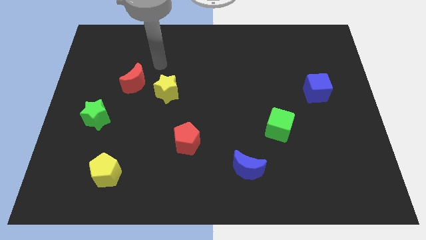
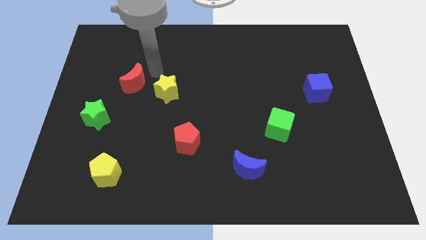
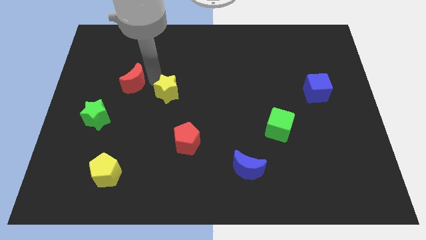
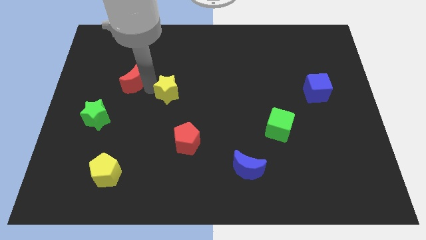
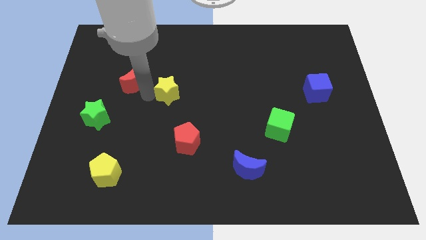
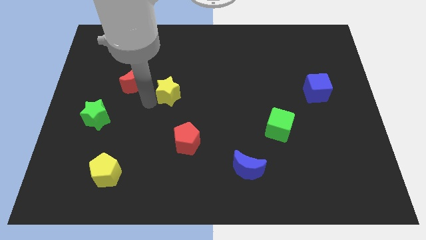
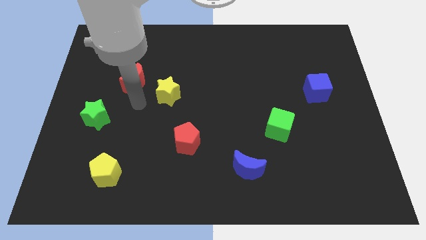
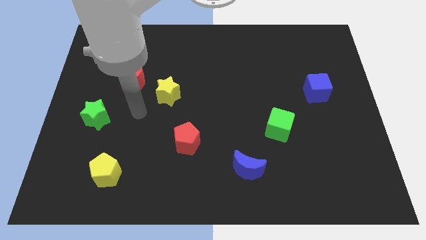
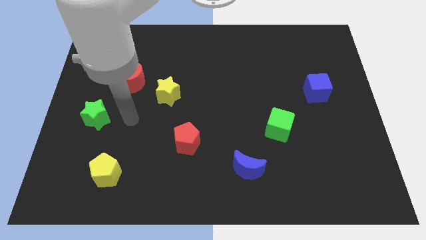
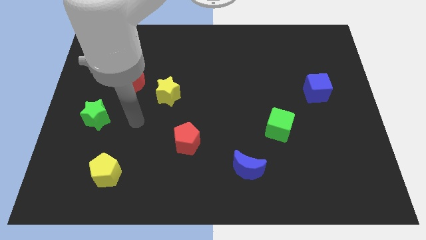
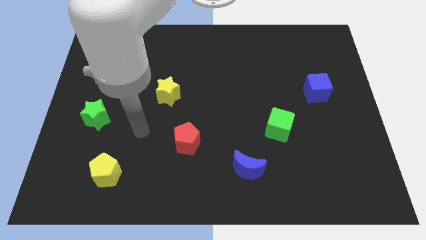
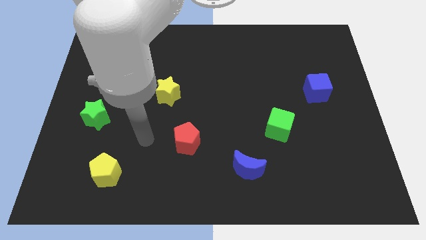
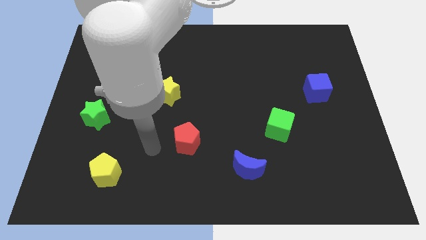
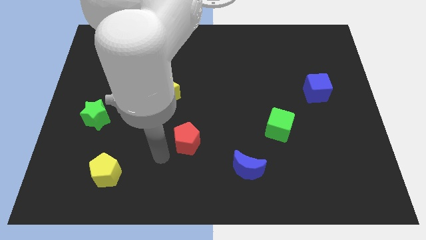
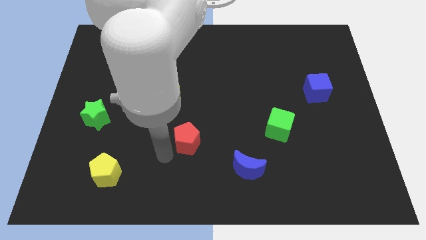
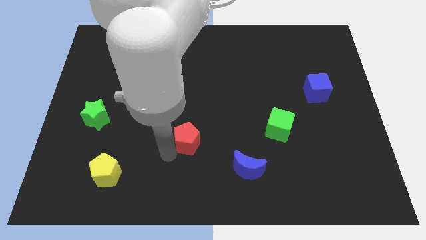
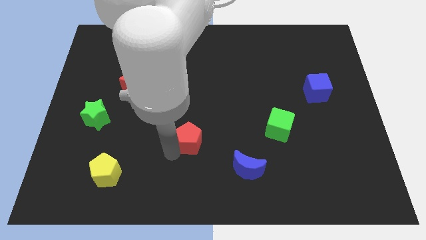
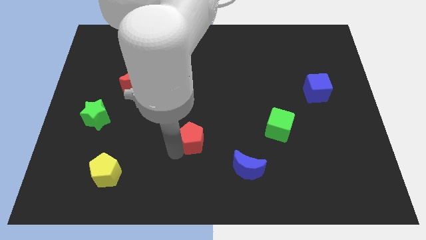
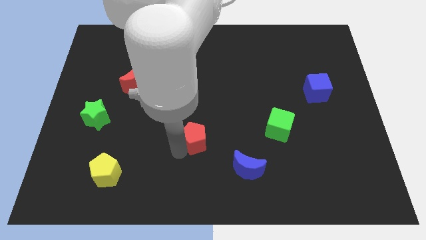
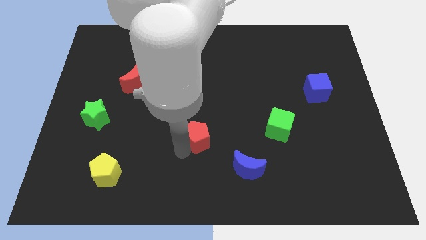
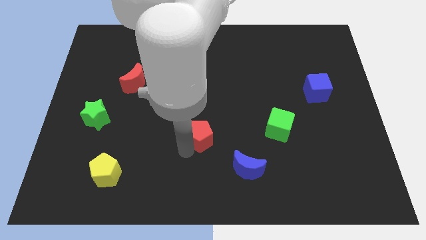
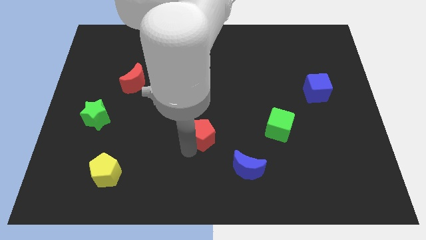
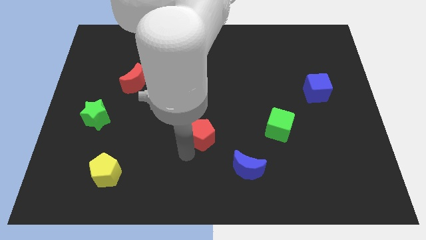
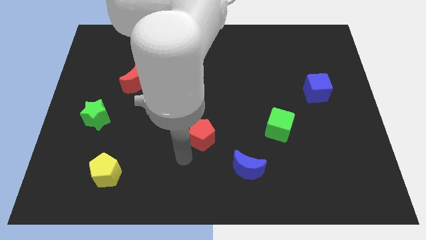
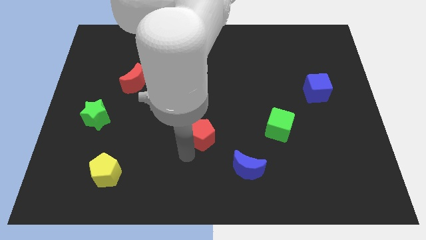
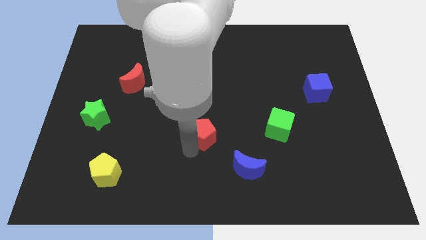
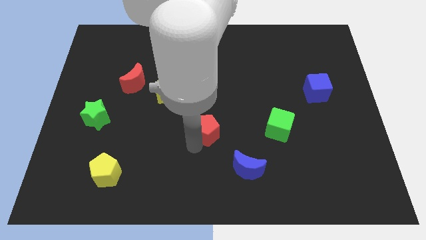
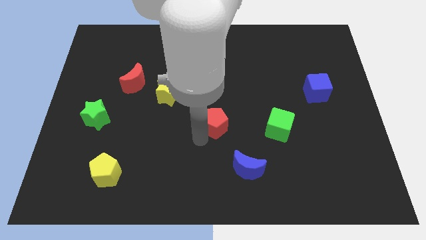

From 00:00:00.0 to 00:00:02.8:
move the red pentagon slightly up and to the right diagonally

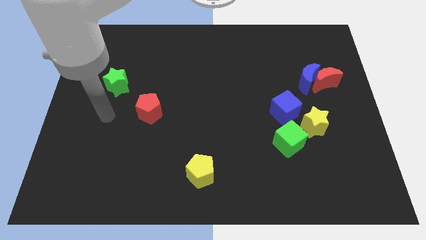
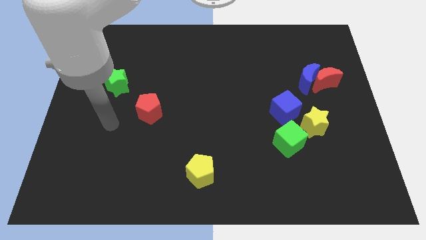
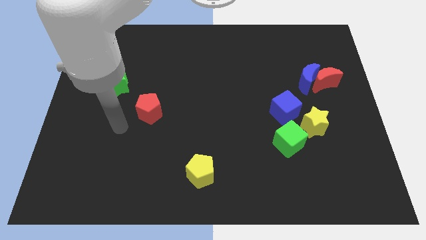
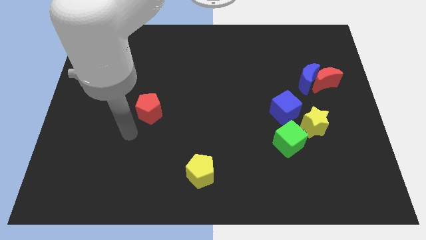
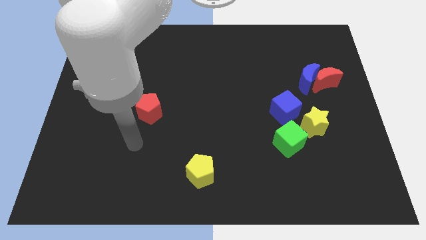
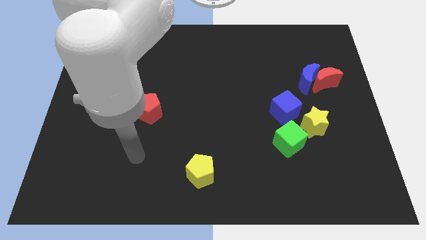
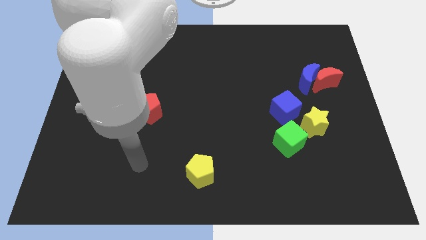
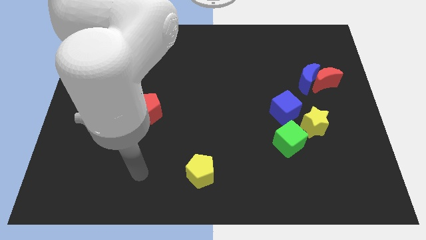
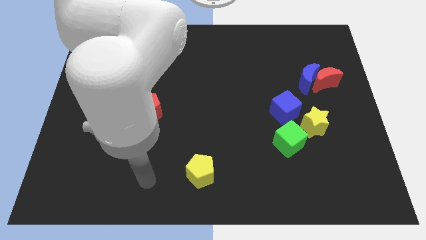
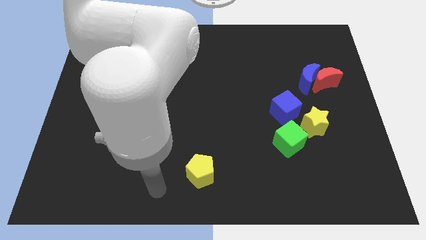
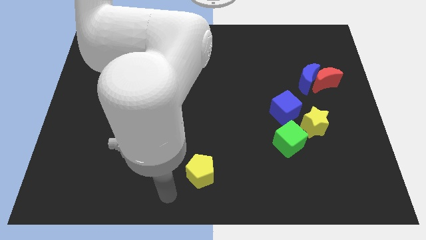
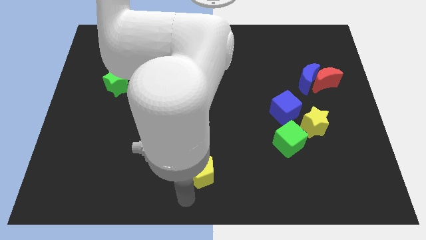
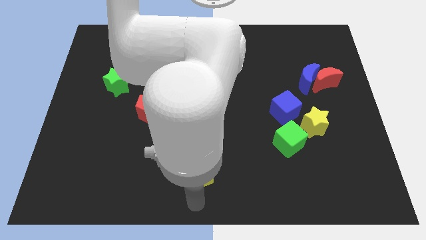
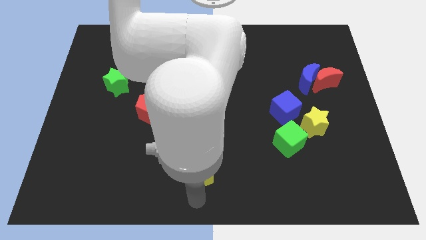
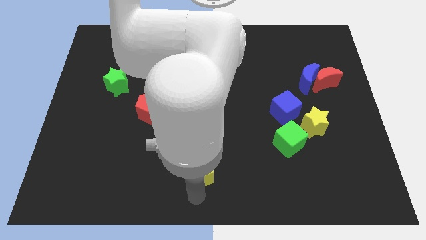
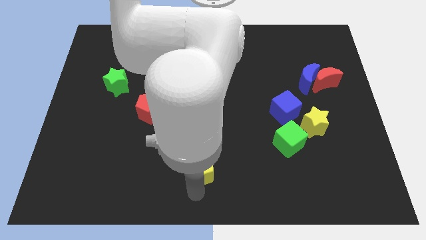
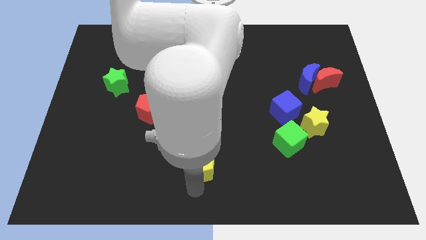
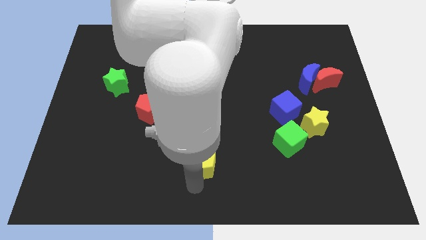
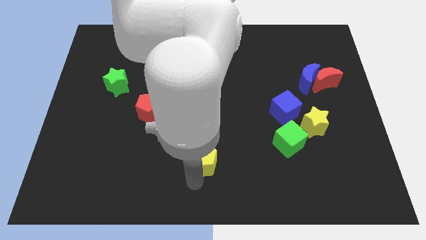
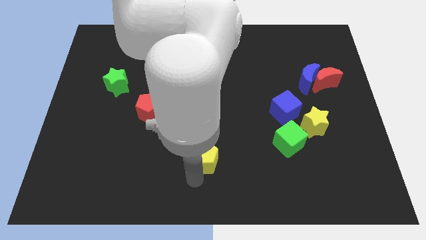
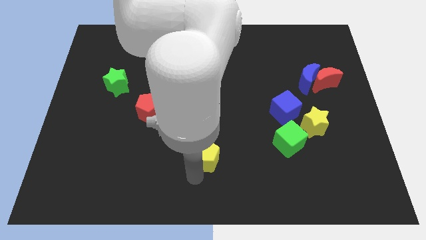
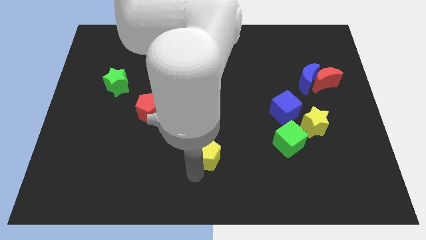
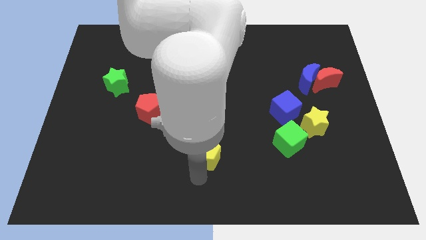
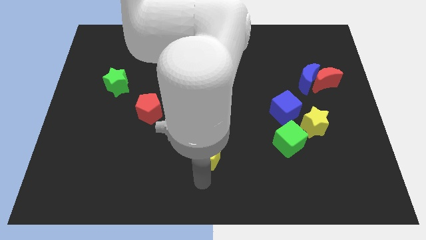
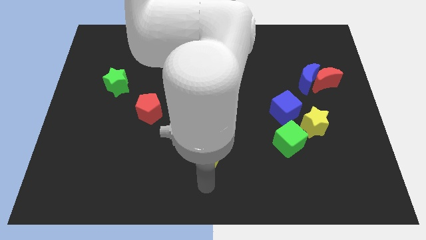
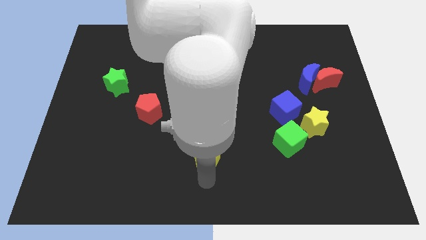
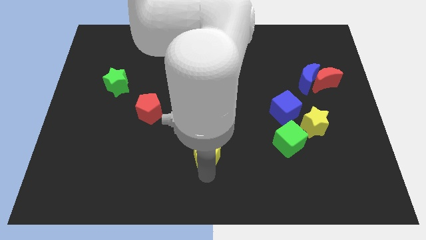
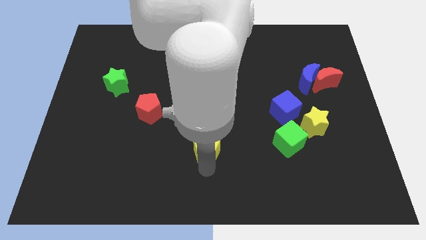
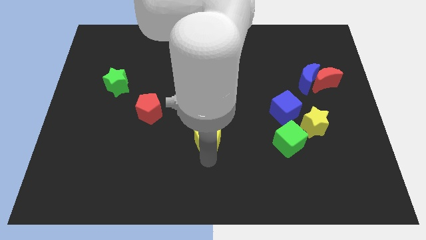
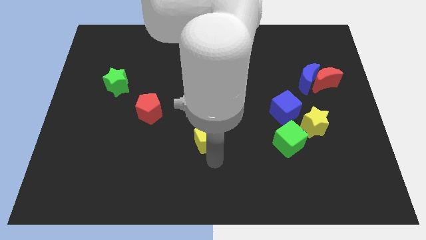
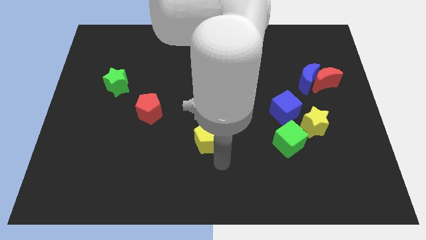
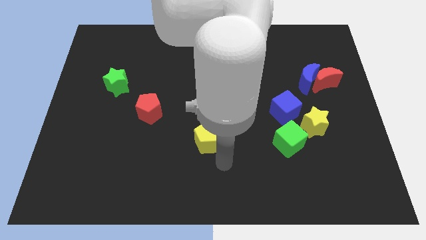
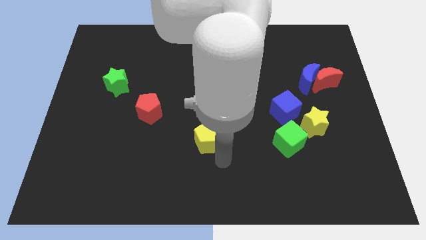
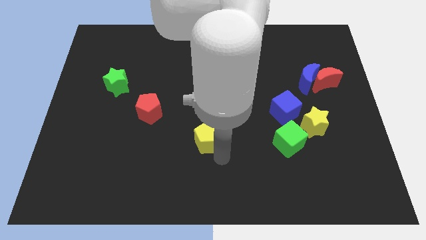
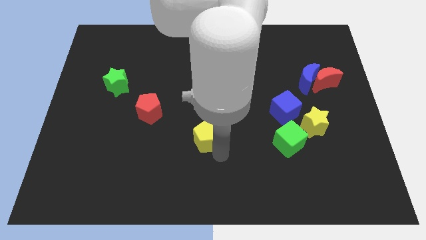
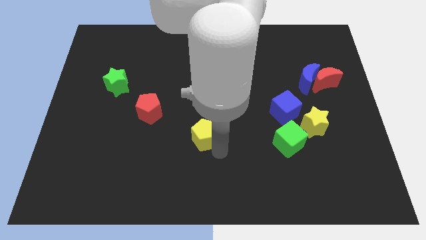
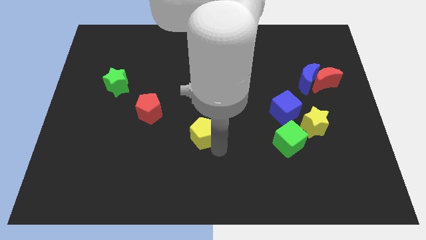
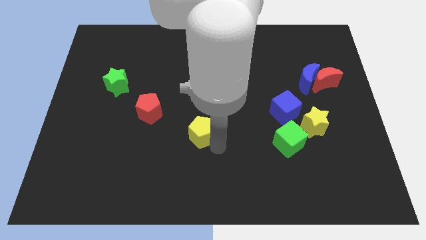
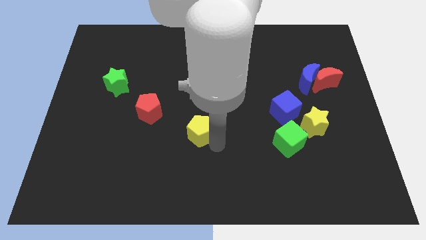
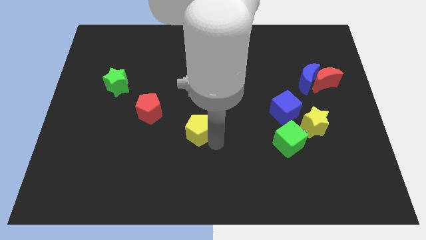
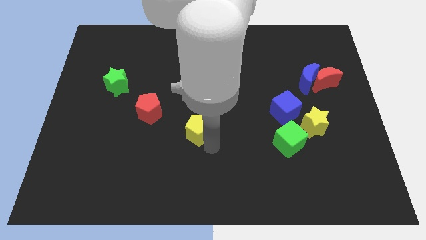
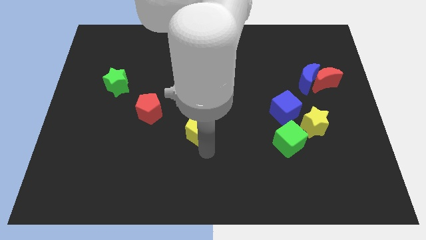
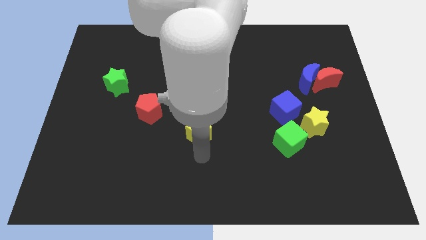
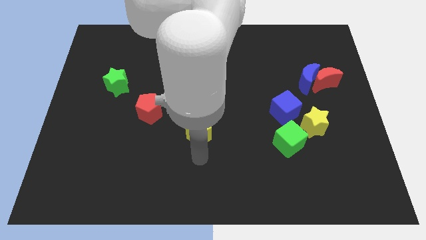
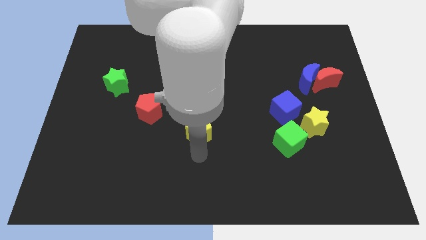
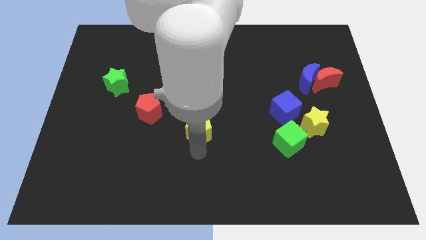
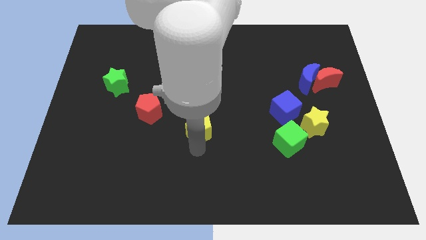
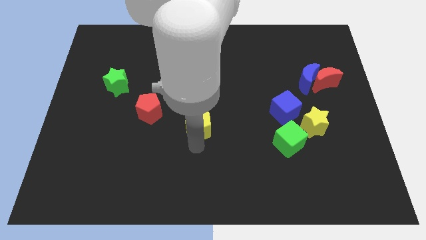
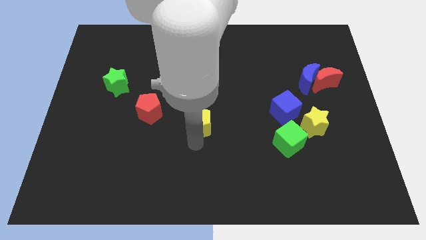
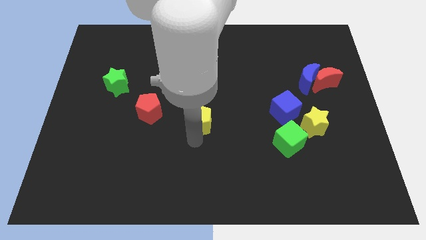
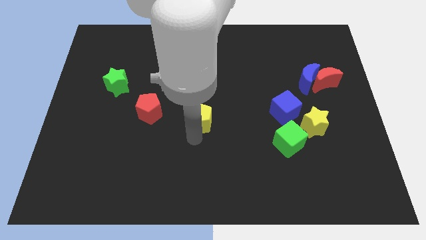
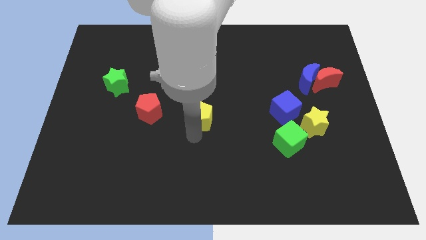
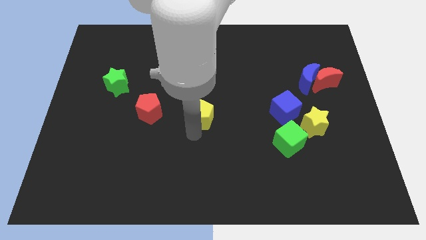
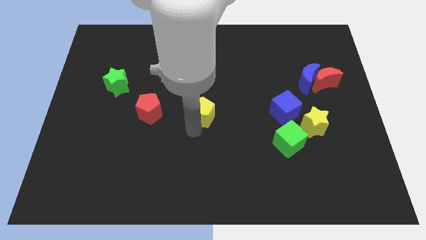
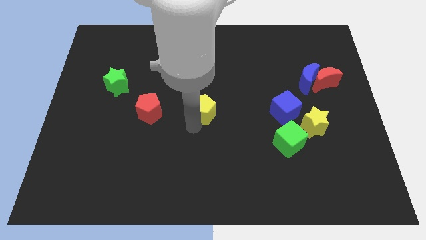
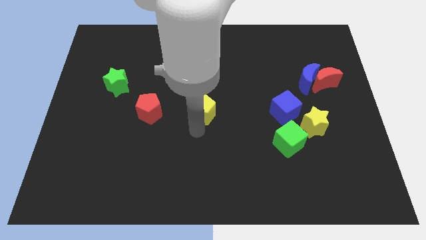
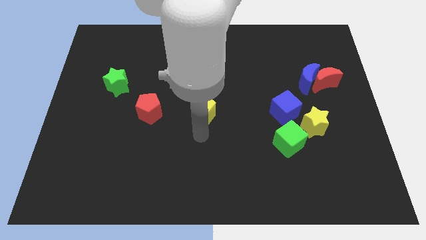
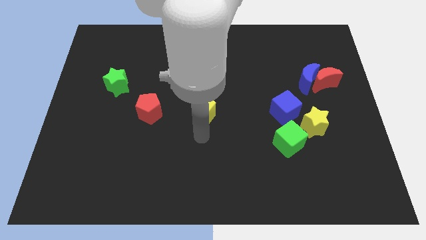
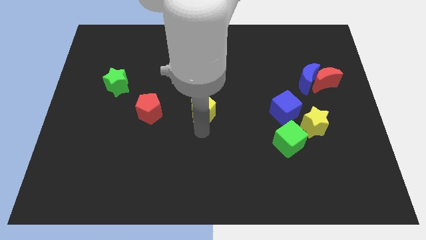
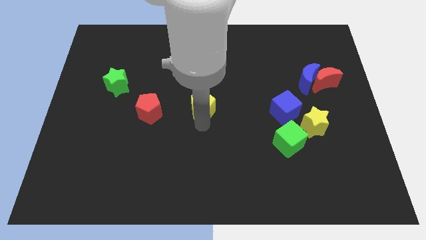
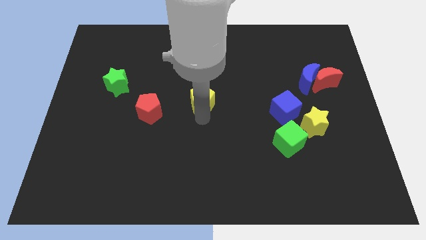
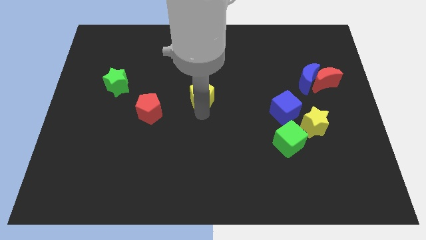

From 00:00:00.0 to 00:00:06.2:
slide the yellow pentagon upwards
